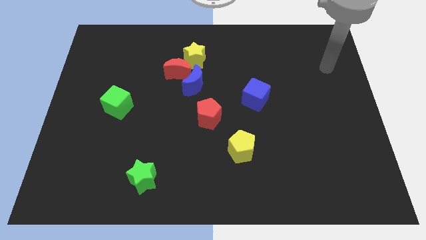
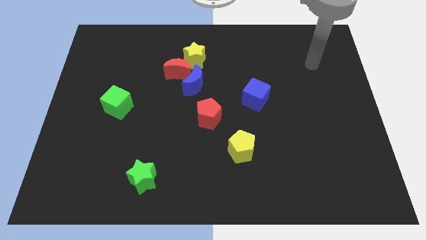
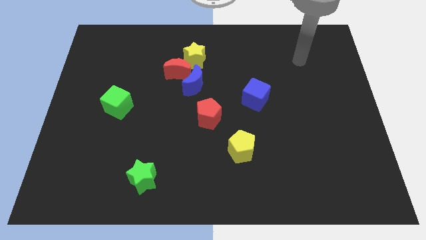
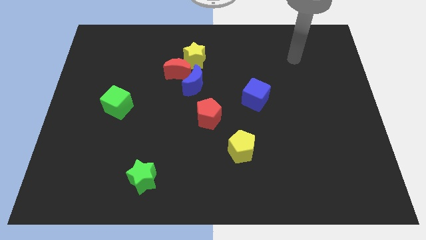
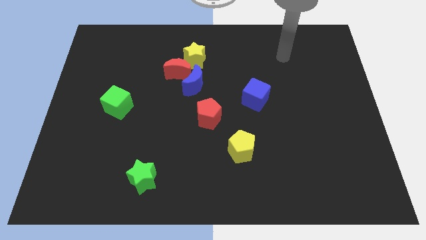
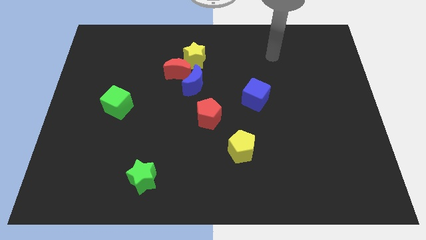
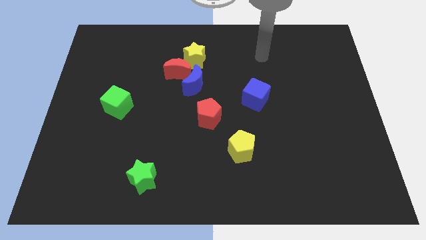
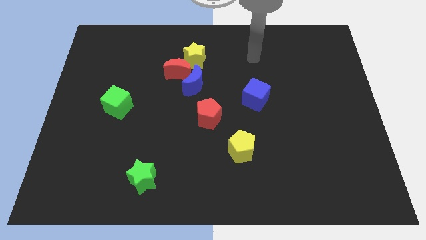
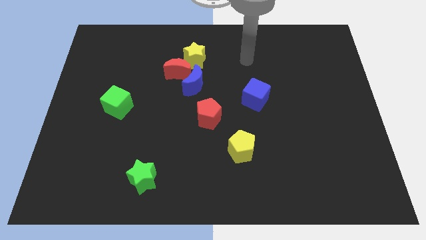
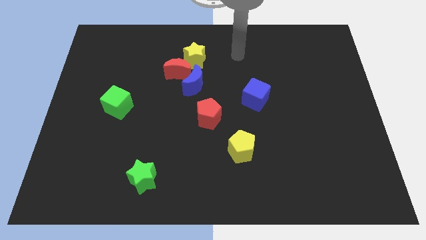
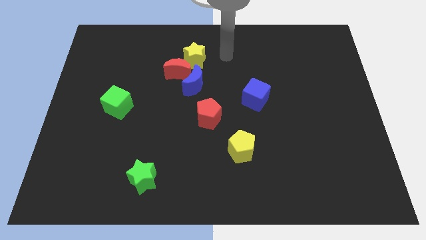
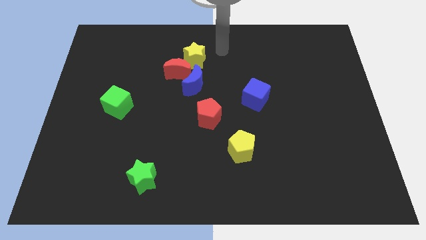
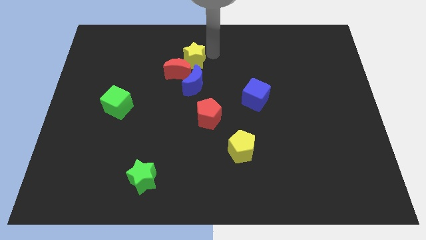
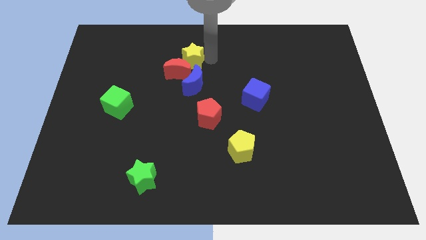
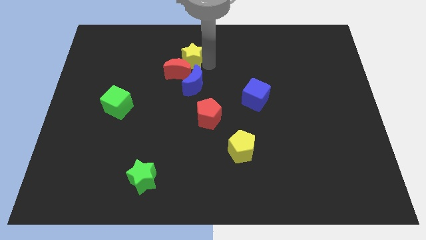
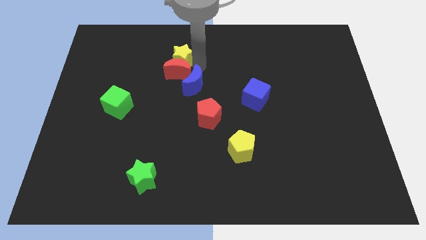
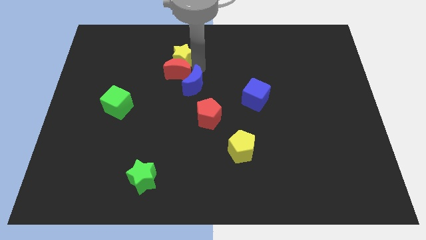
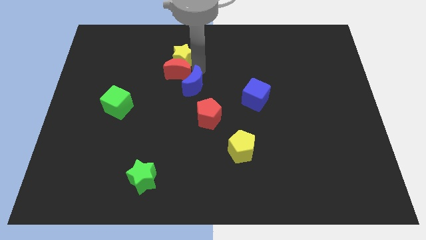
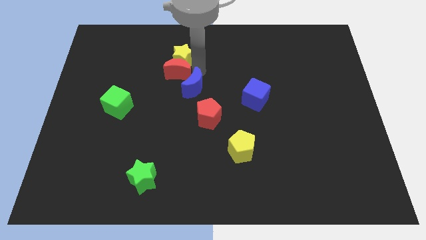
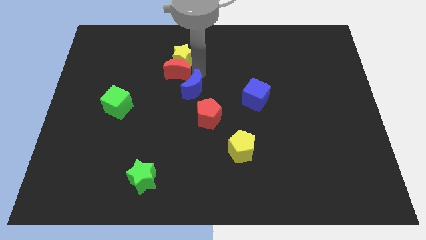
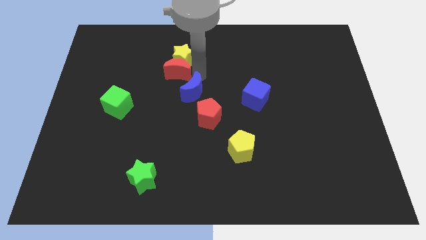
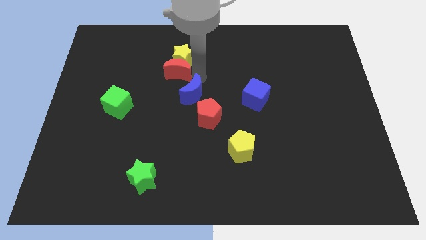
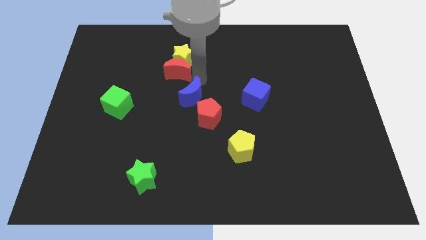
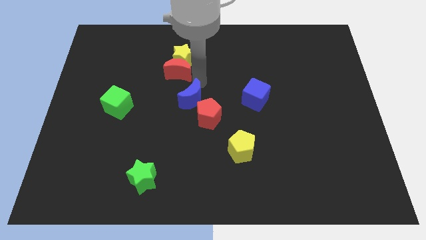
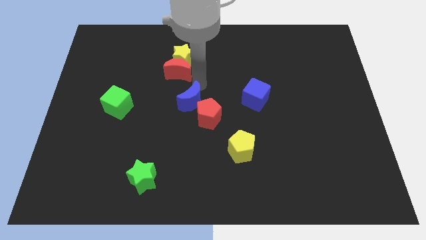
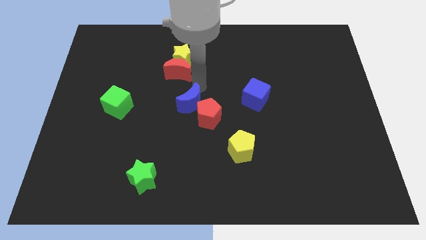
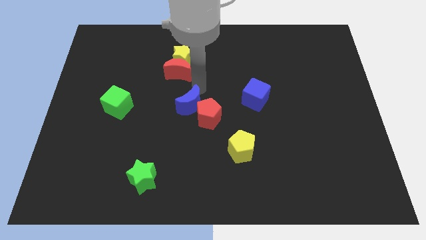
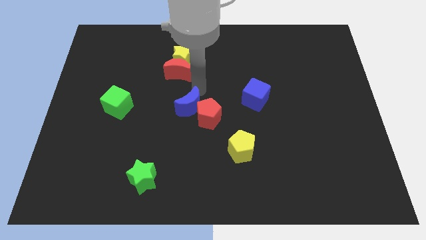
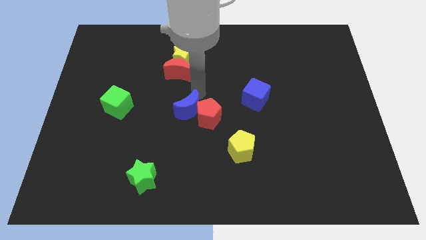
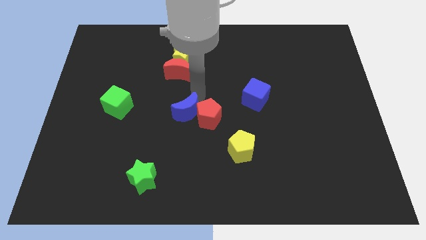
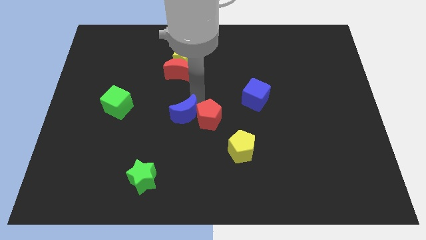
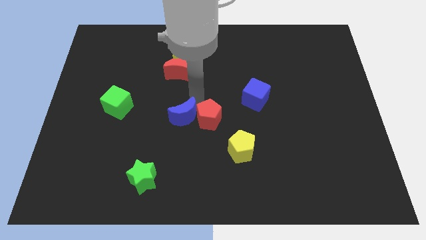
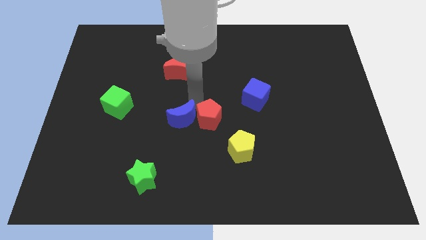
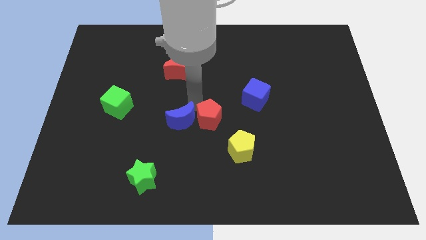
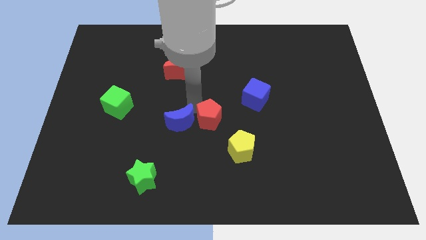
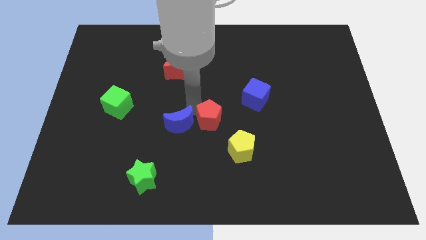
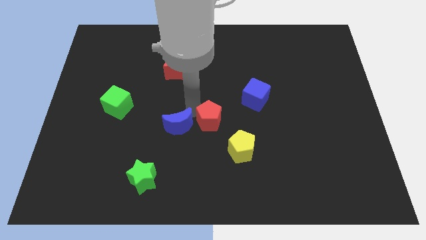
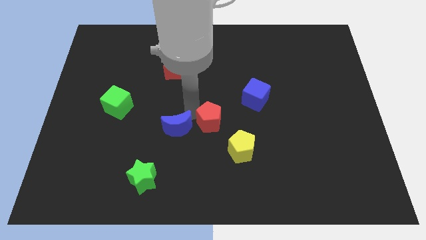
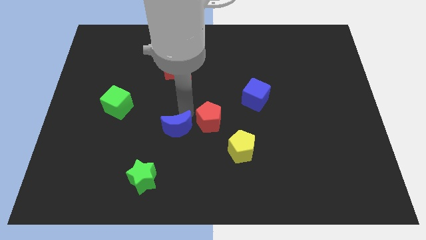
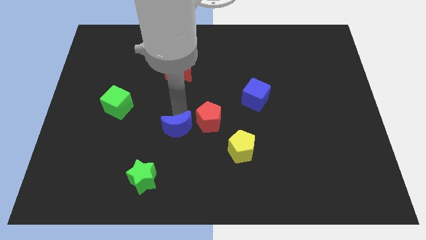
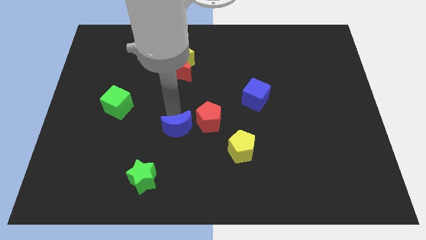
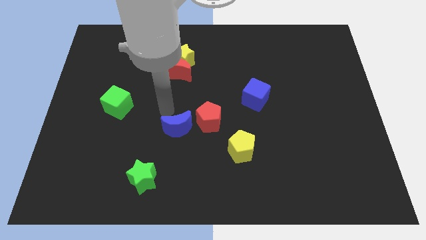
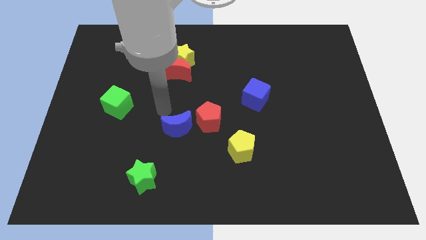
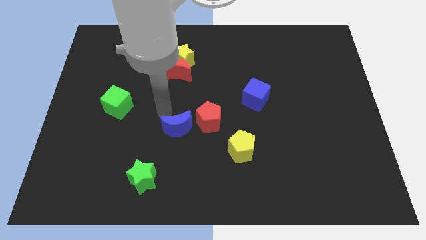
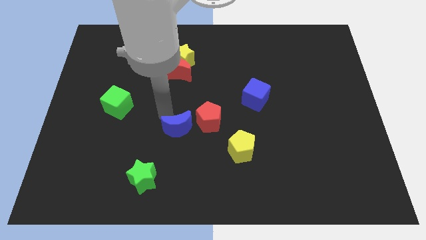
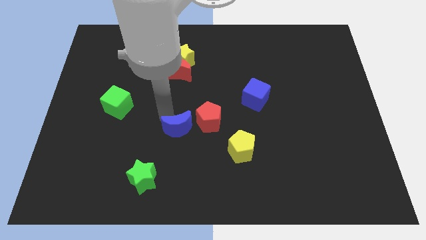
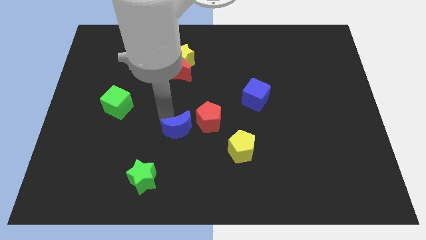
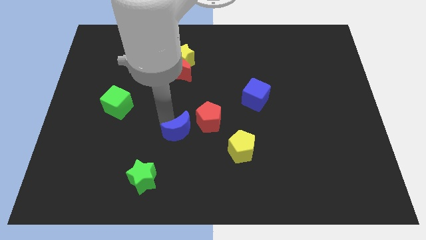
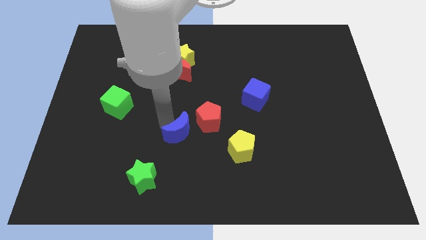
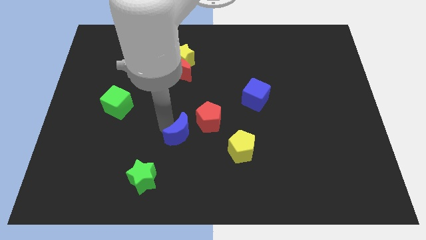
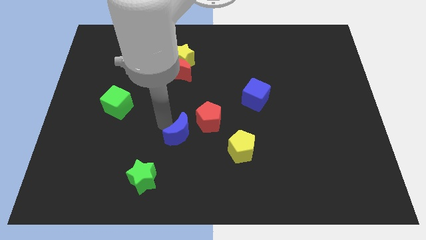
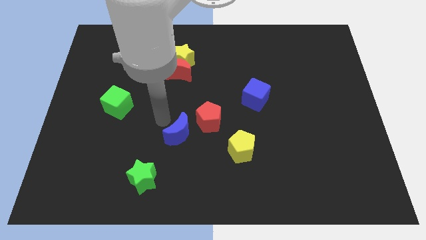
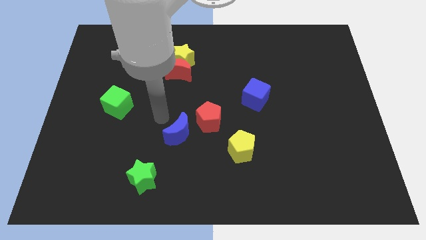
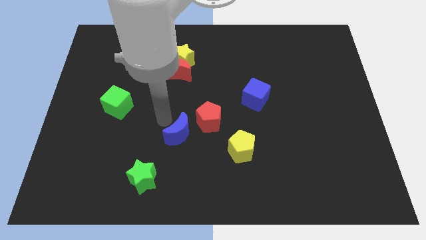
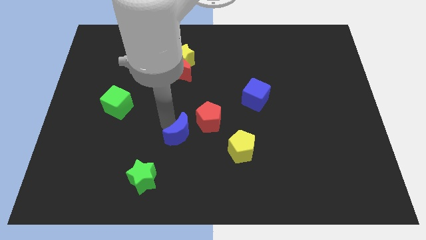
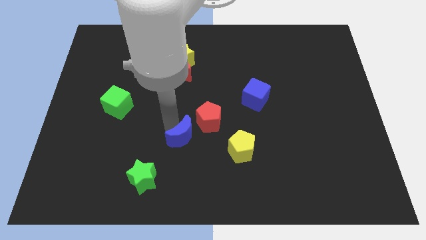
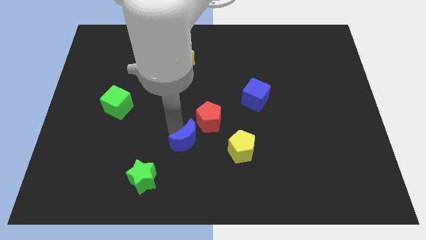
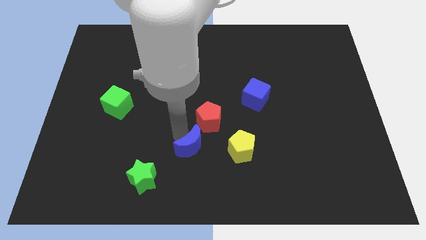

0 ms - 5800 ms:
push the blue moon below the red pentagon

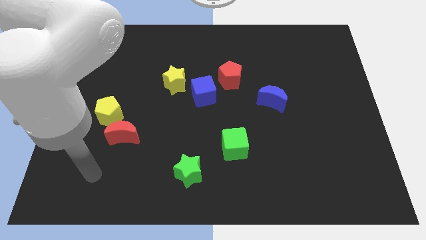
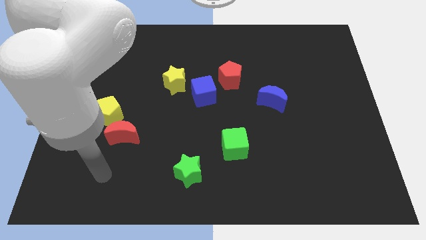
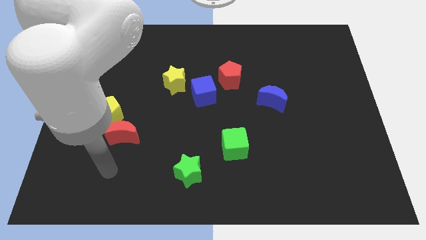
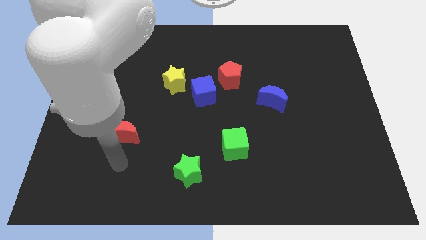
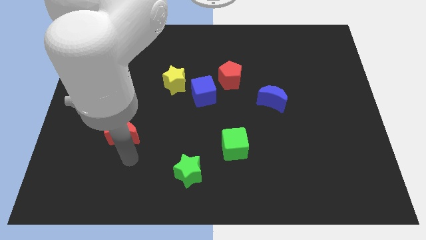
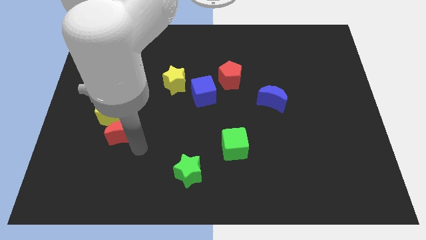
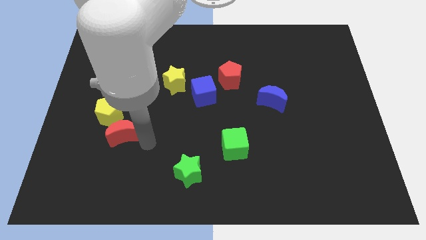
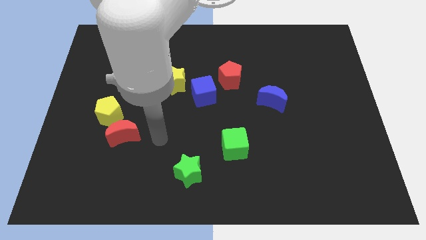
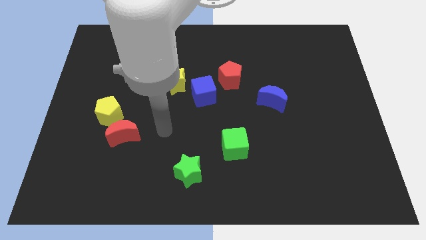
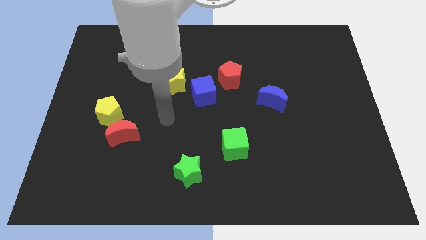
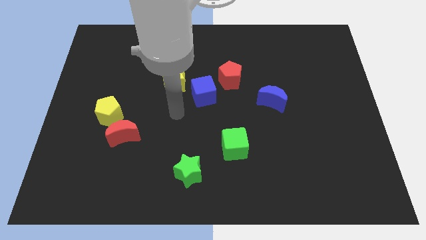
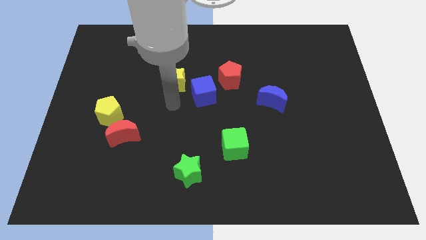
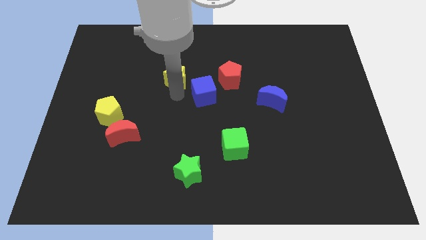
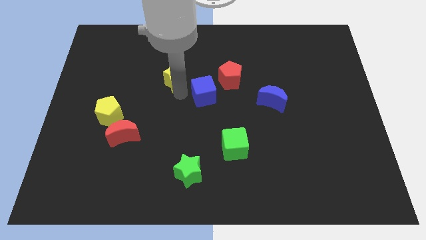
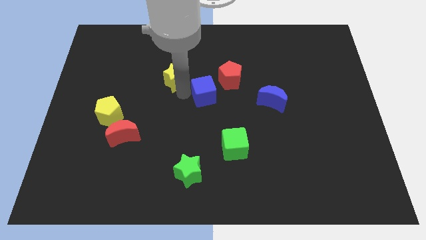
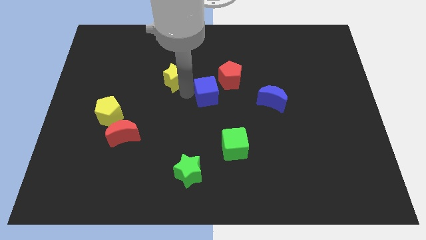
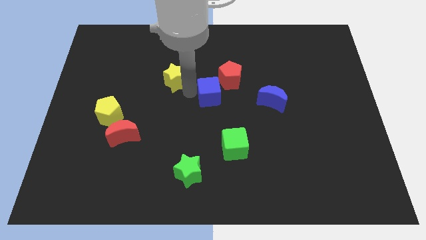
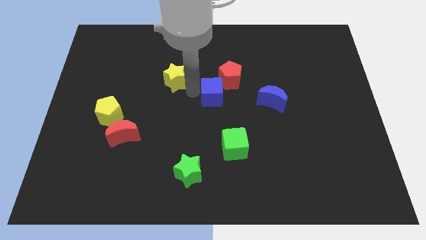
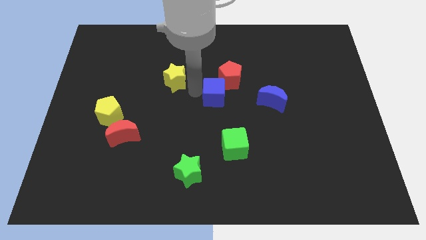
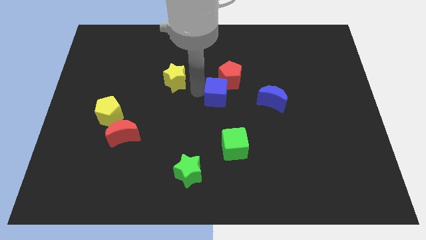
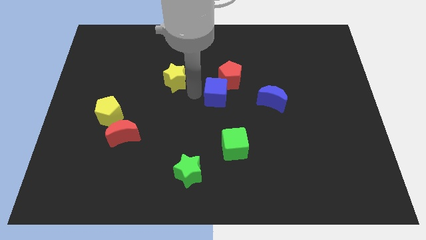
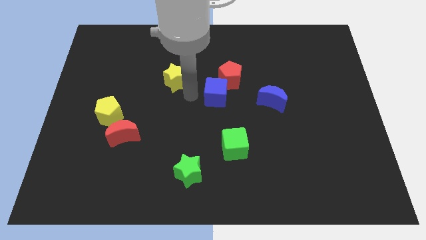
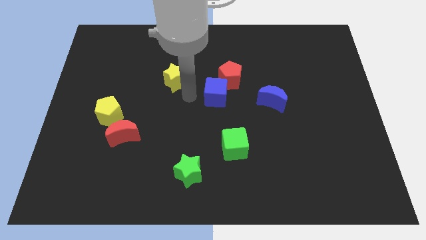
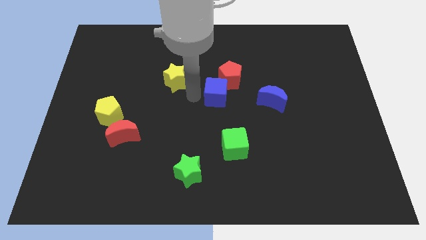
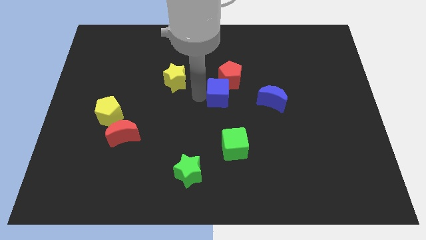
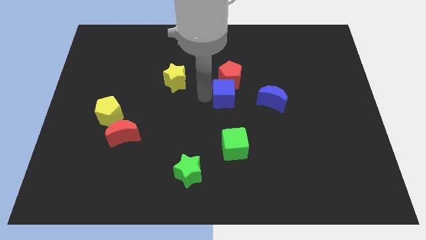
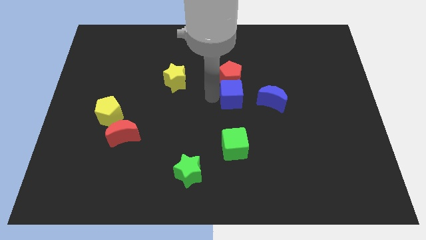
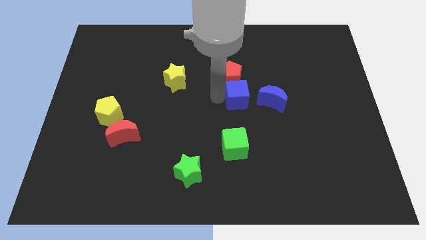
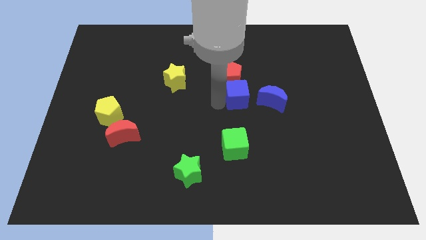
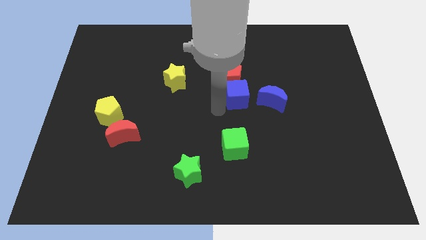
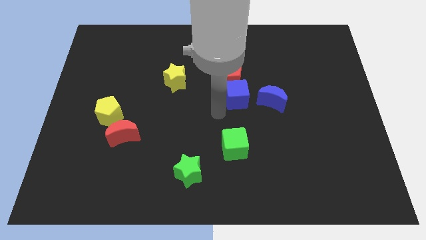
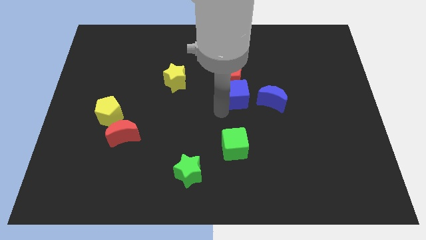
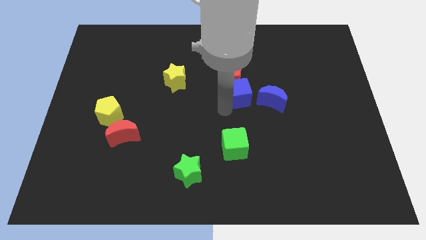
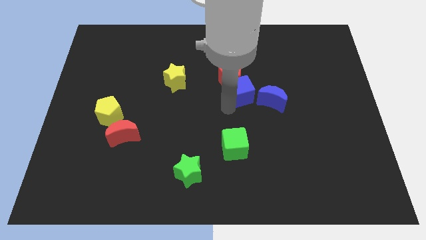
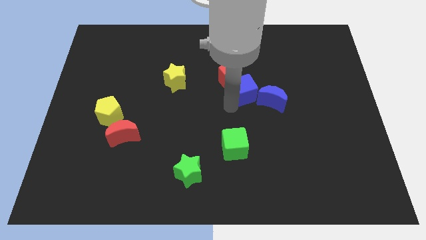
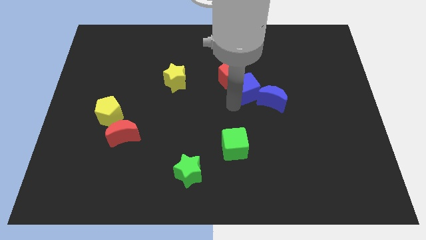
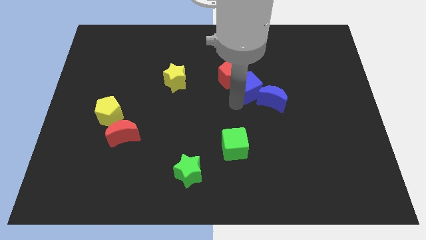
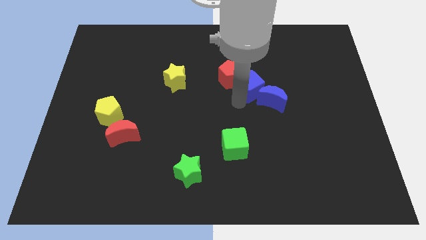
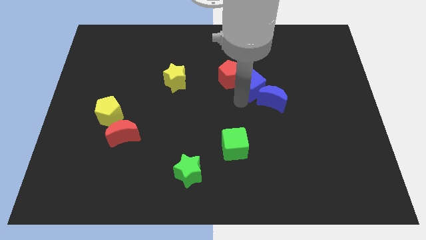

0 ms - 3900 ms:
put the blue cube to the top side of the blue moon
